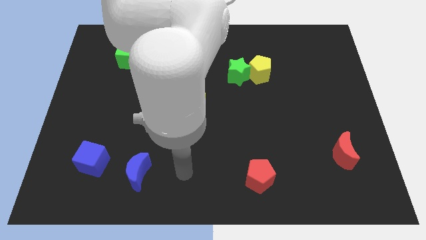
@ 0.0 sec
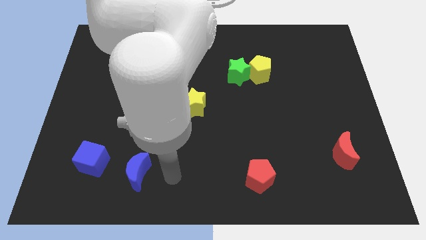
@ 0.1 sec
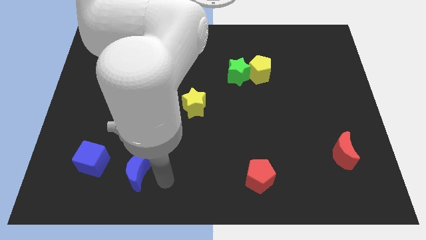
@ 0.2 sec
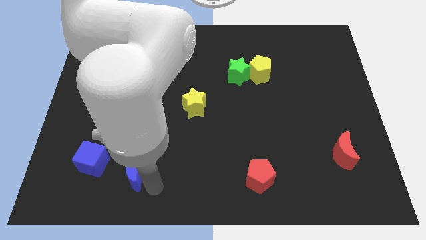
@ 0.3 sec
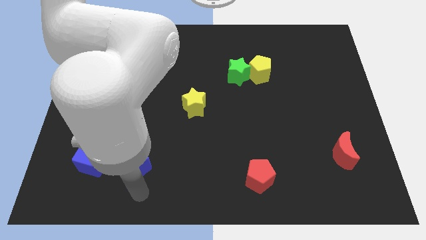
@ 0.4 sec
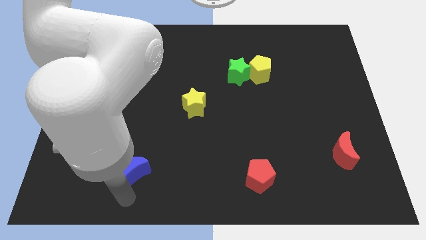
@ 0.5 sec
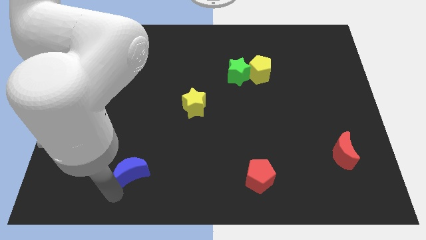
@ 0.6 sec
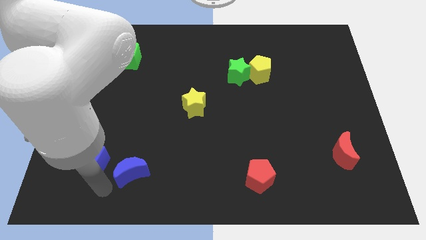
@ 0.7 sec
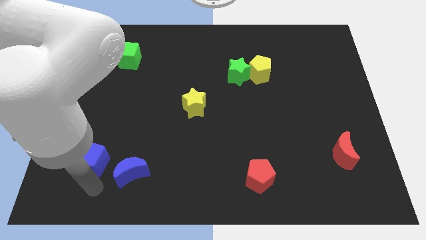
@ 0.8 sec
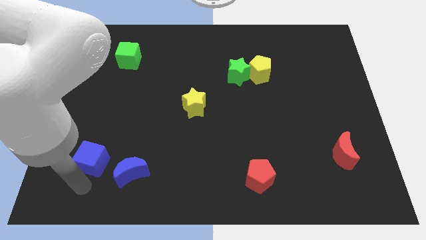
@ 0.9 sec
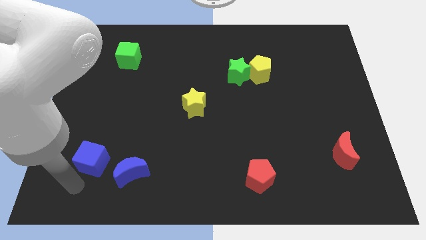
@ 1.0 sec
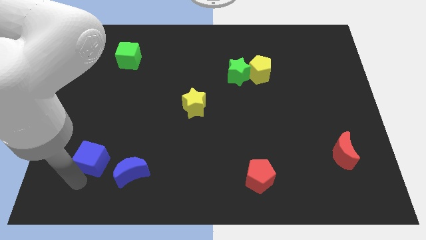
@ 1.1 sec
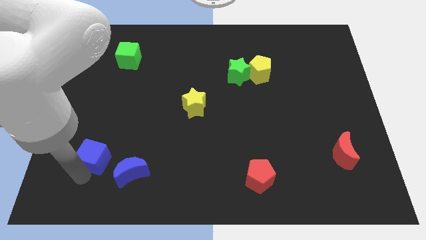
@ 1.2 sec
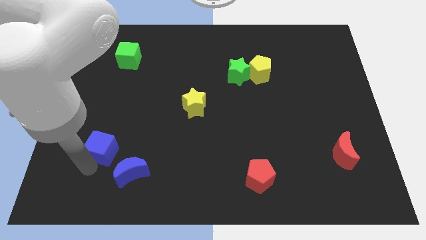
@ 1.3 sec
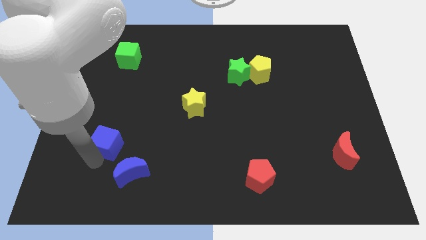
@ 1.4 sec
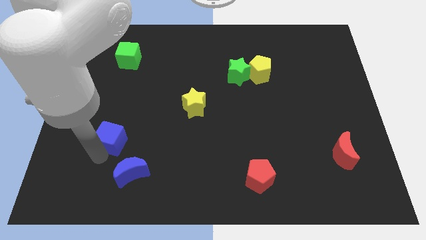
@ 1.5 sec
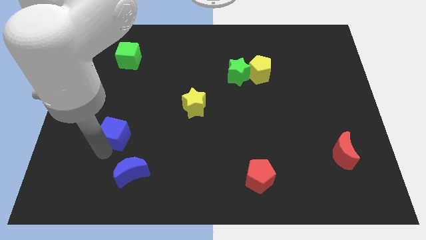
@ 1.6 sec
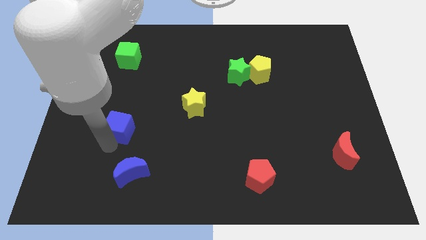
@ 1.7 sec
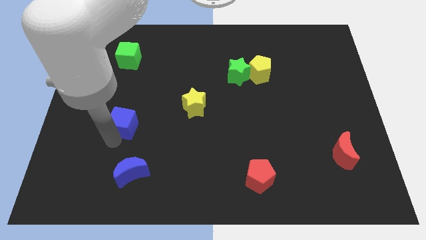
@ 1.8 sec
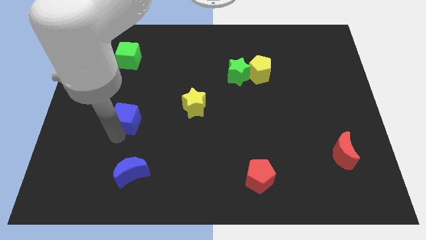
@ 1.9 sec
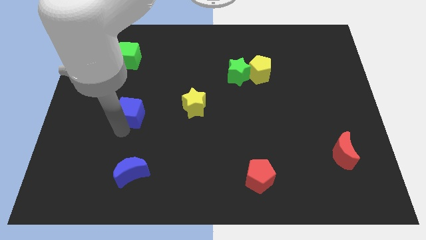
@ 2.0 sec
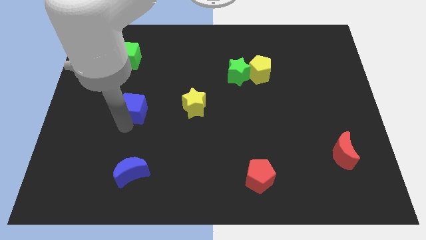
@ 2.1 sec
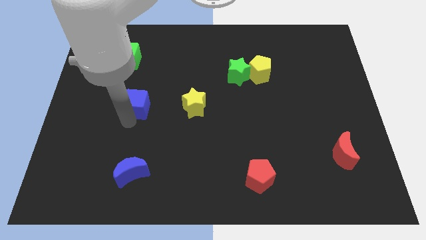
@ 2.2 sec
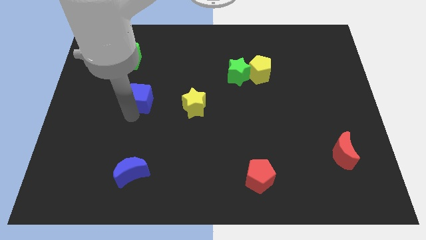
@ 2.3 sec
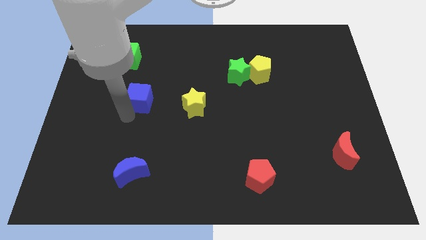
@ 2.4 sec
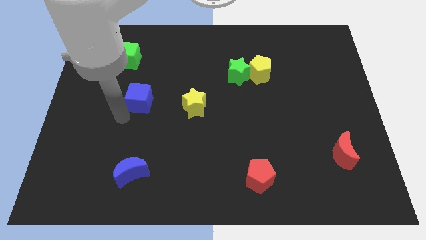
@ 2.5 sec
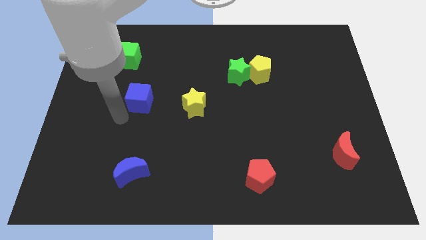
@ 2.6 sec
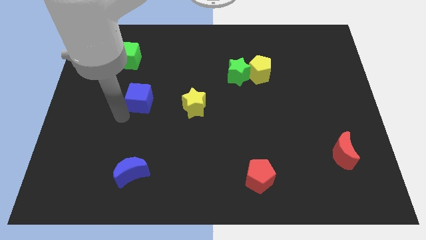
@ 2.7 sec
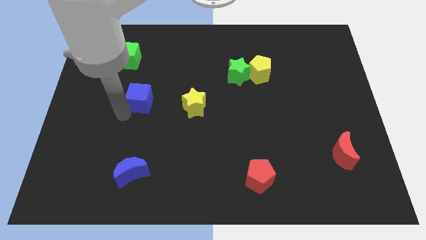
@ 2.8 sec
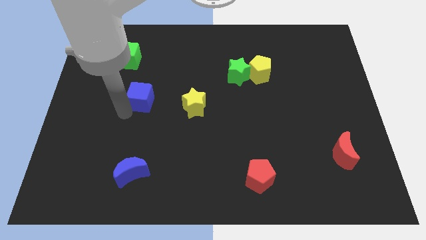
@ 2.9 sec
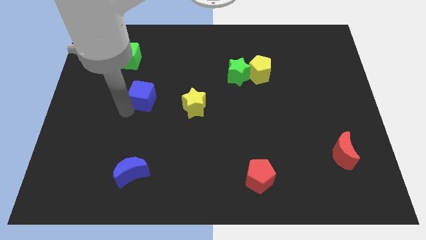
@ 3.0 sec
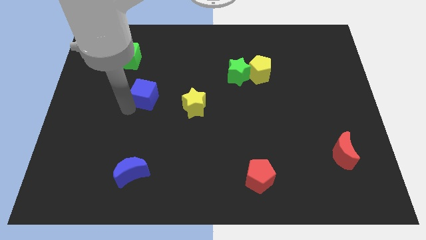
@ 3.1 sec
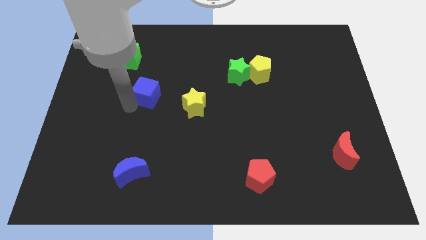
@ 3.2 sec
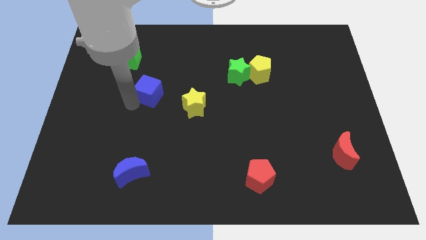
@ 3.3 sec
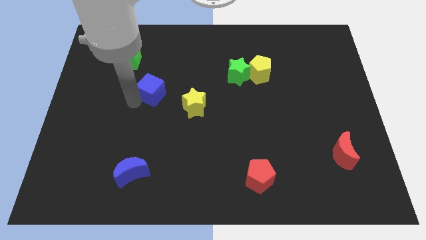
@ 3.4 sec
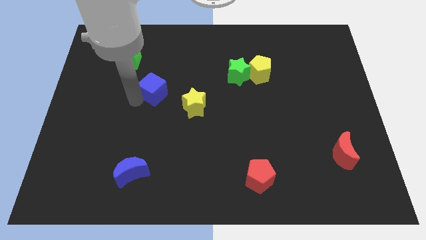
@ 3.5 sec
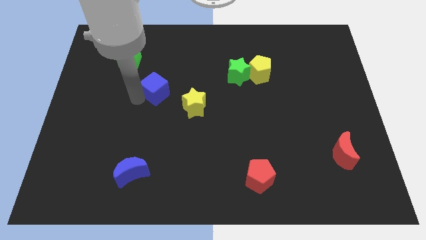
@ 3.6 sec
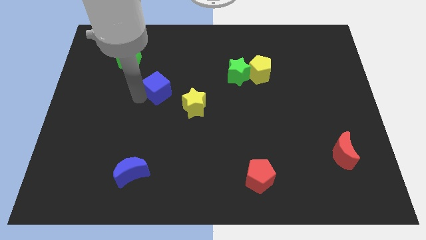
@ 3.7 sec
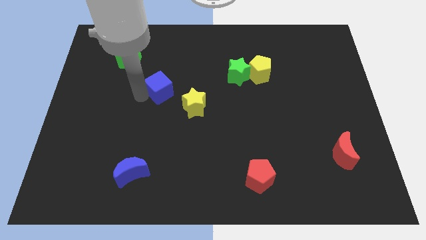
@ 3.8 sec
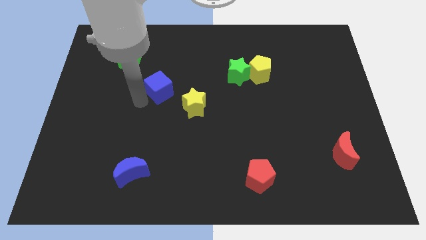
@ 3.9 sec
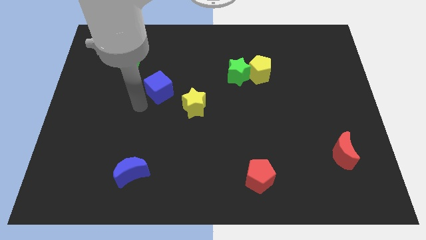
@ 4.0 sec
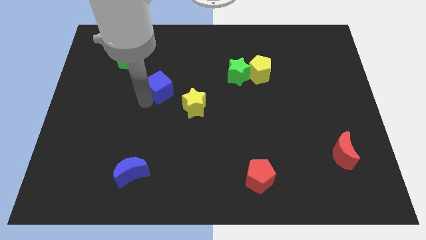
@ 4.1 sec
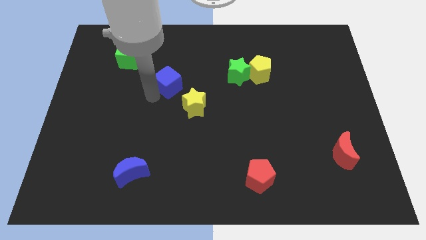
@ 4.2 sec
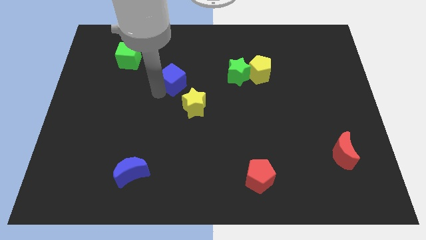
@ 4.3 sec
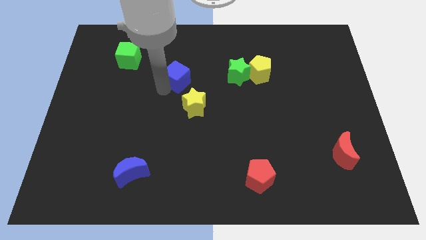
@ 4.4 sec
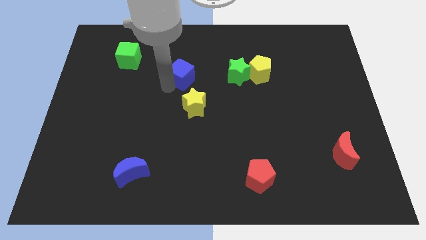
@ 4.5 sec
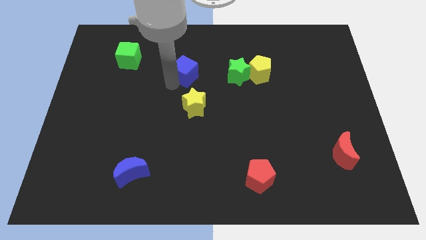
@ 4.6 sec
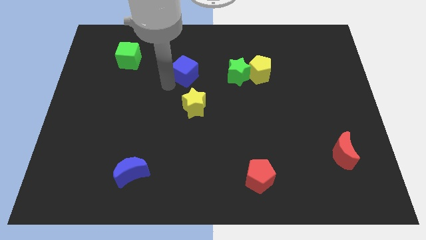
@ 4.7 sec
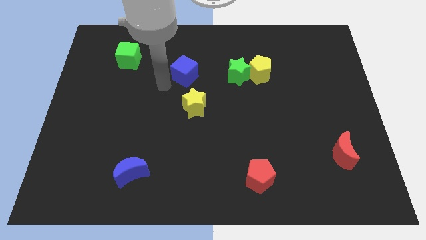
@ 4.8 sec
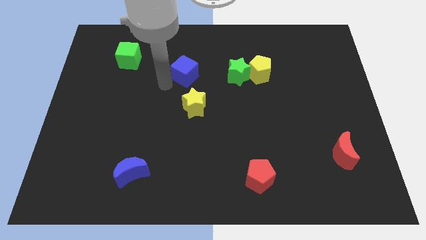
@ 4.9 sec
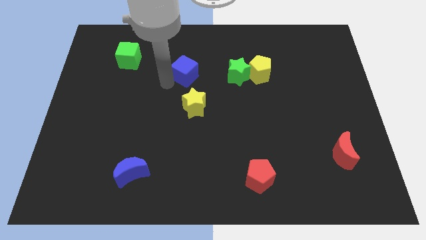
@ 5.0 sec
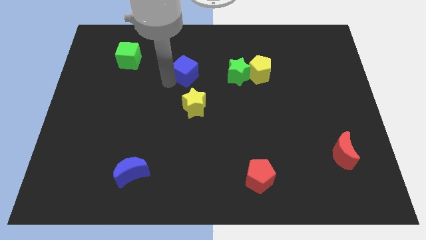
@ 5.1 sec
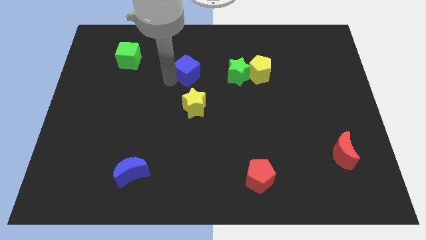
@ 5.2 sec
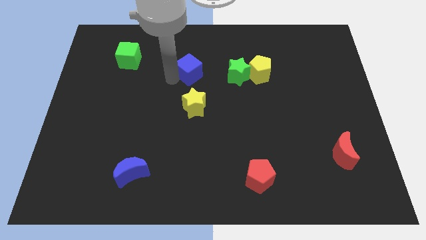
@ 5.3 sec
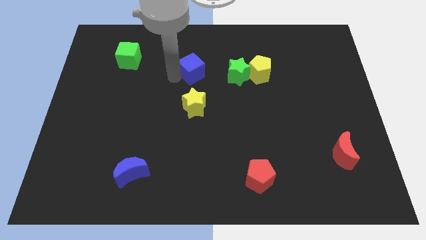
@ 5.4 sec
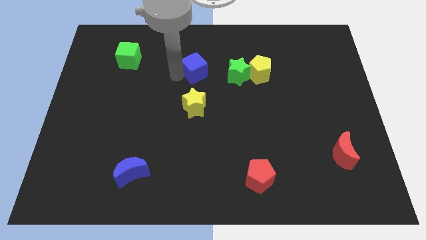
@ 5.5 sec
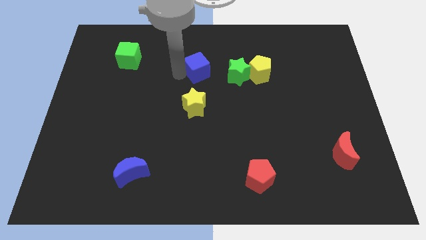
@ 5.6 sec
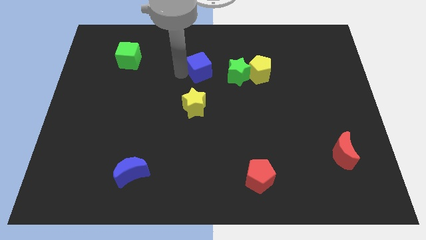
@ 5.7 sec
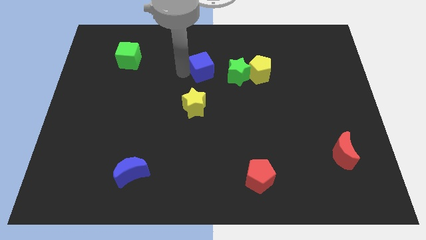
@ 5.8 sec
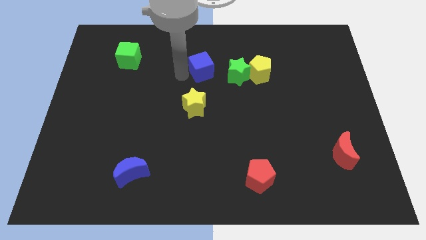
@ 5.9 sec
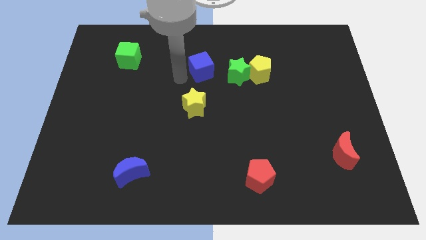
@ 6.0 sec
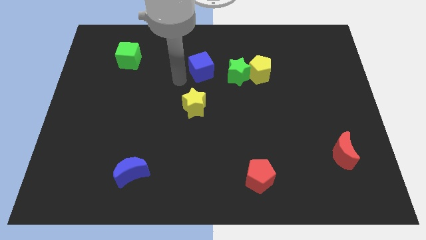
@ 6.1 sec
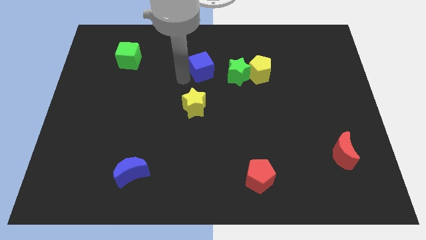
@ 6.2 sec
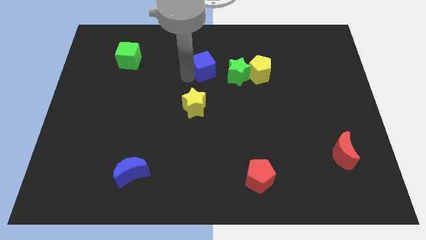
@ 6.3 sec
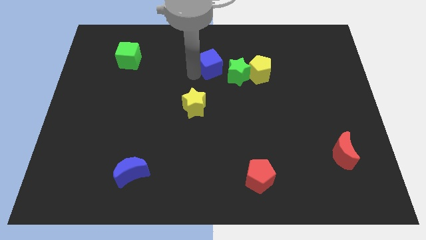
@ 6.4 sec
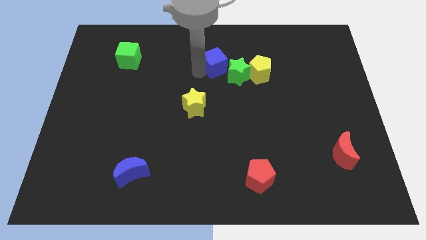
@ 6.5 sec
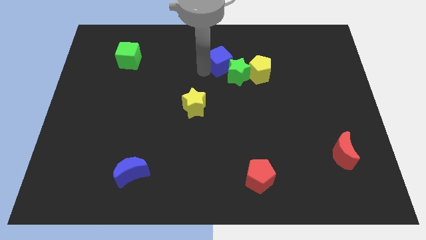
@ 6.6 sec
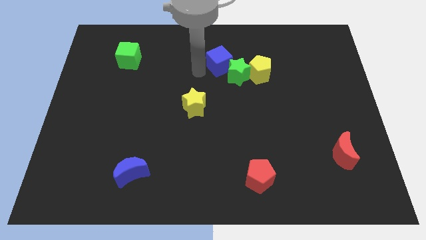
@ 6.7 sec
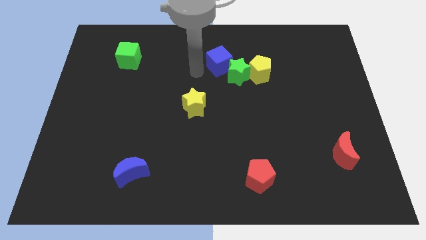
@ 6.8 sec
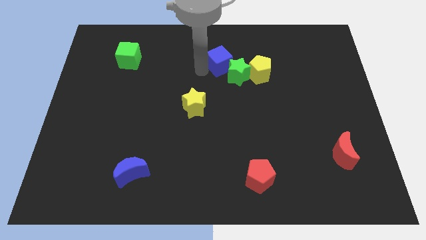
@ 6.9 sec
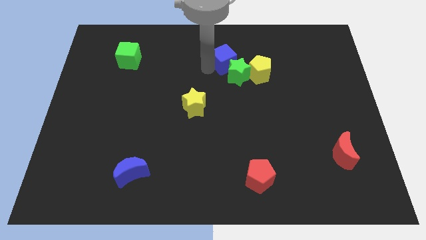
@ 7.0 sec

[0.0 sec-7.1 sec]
put the blue cube to the top left side of the yellow pentagon

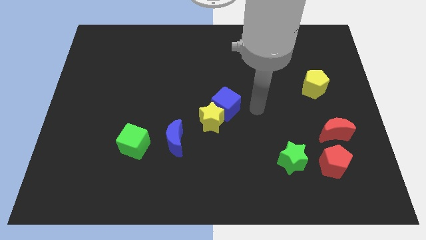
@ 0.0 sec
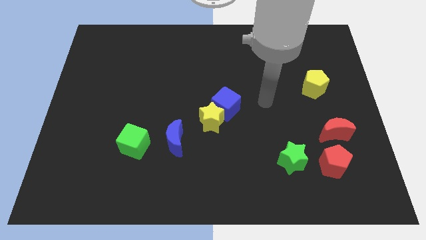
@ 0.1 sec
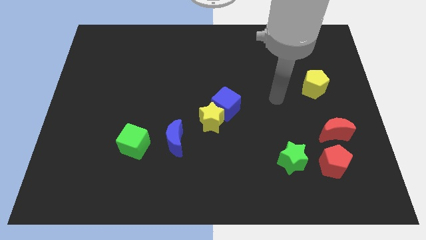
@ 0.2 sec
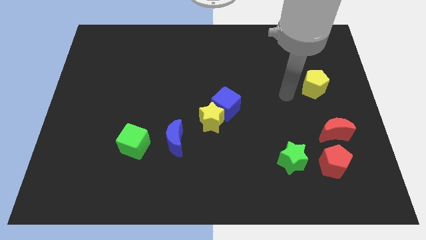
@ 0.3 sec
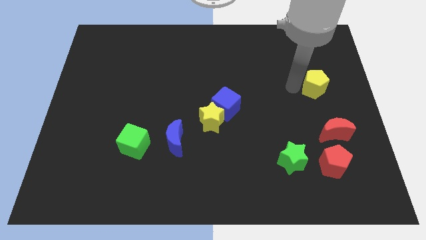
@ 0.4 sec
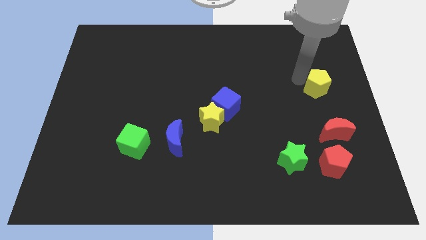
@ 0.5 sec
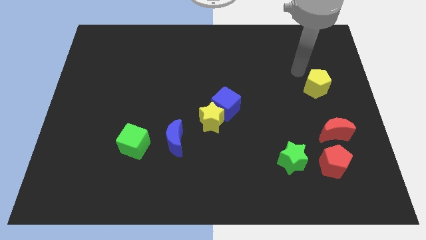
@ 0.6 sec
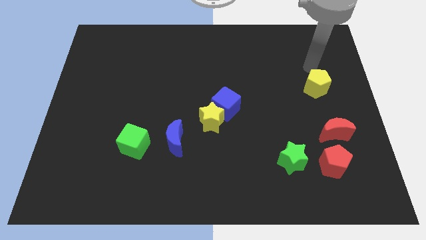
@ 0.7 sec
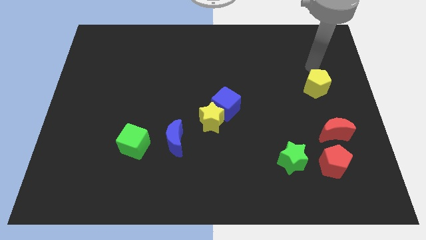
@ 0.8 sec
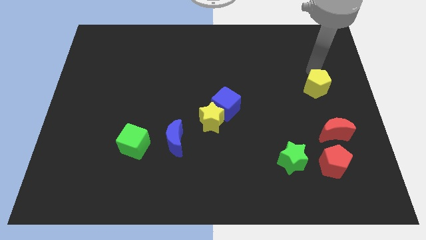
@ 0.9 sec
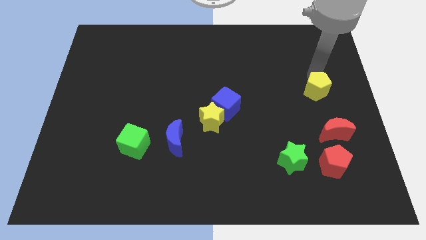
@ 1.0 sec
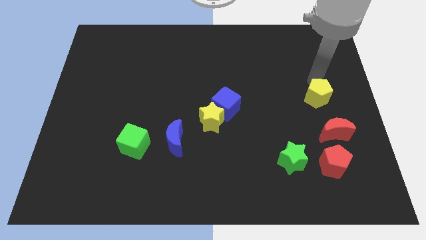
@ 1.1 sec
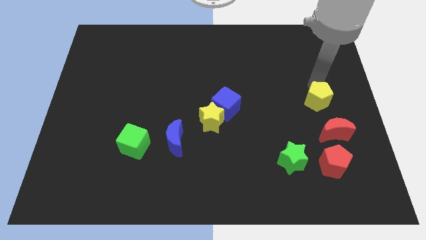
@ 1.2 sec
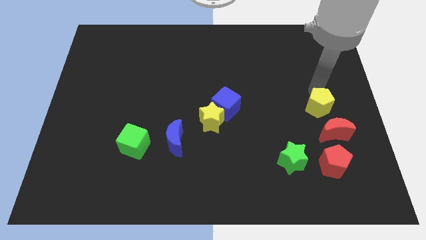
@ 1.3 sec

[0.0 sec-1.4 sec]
put the yellow pentagon to the top of the red pentagon
